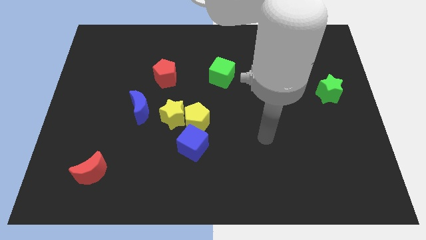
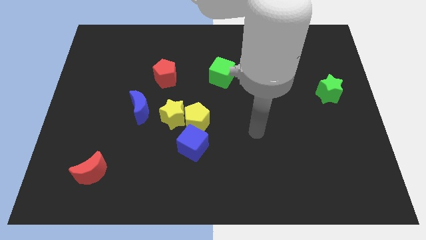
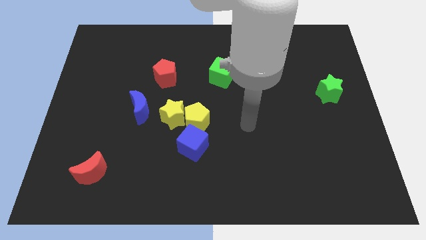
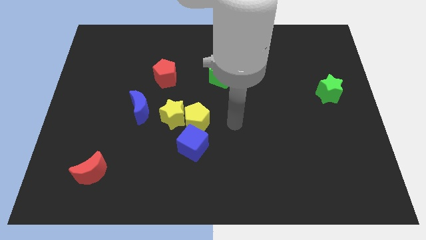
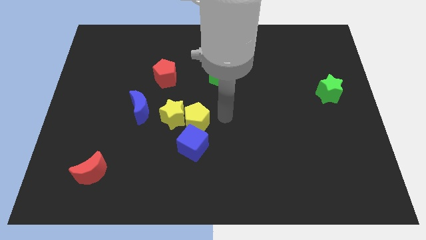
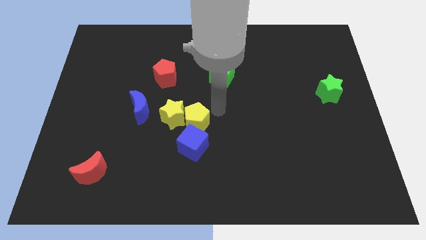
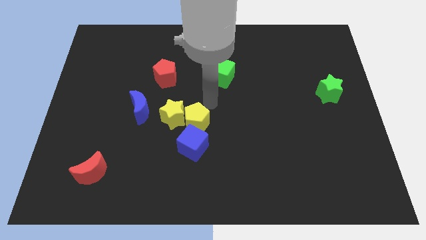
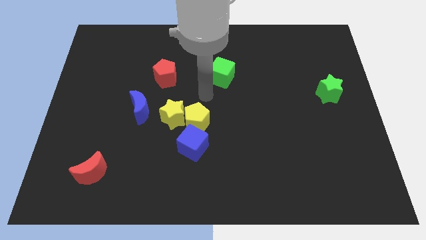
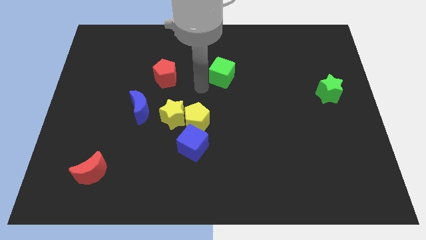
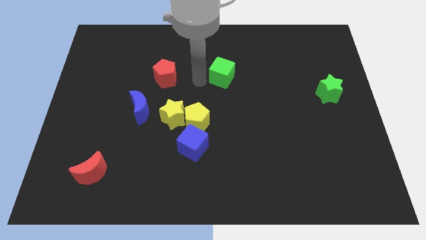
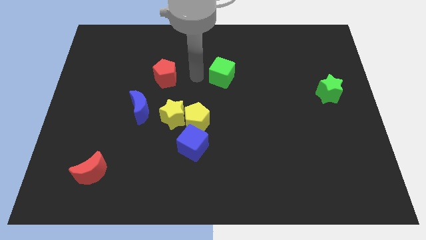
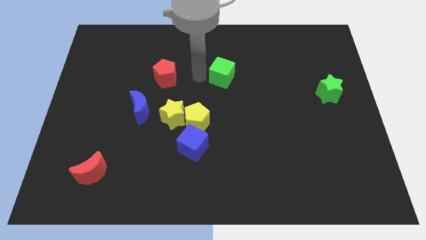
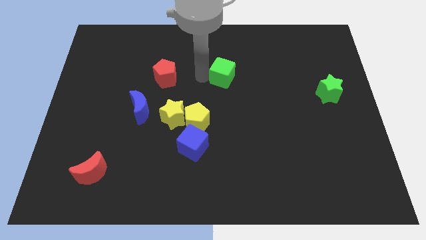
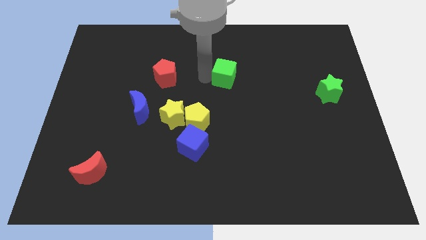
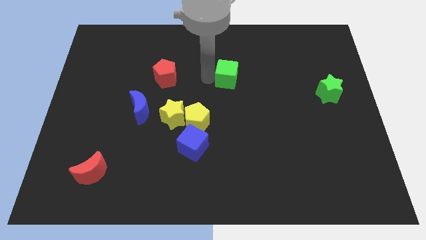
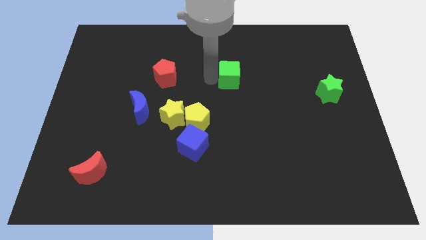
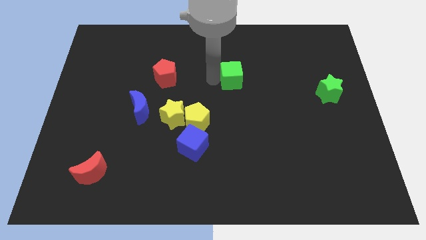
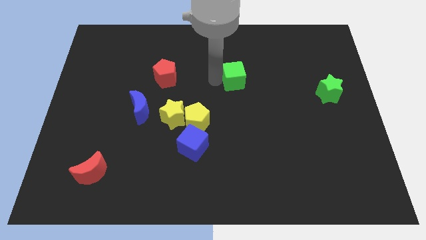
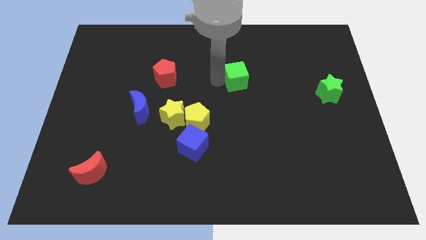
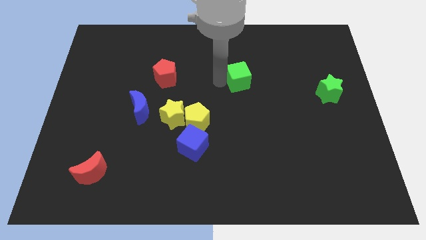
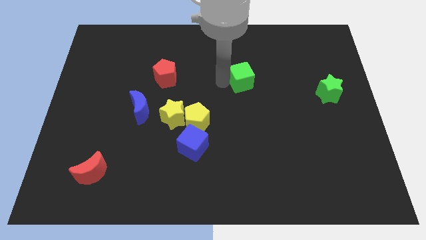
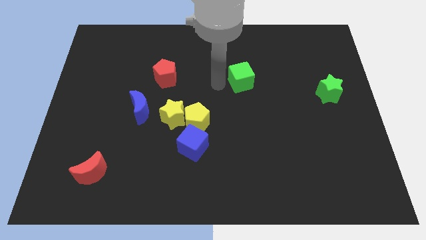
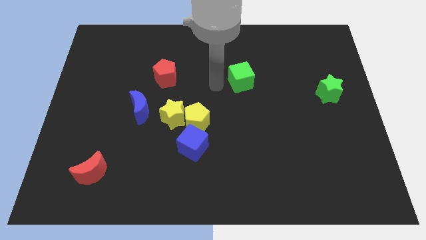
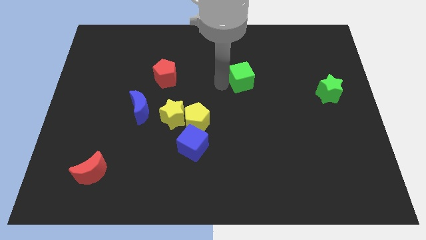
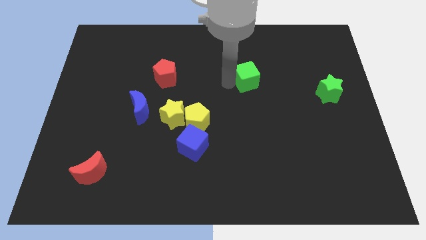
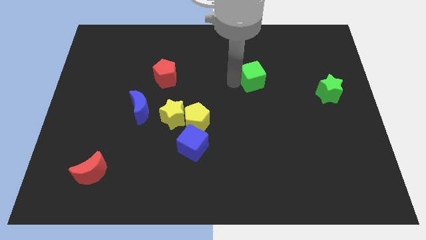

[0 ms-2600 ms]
move the green cube right somewhat

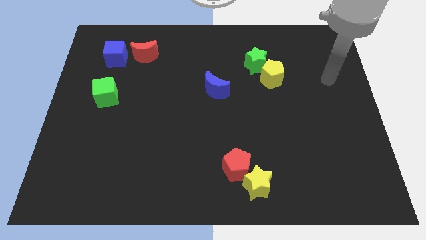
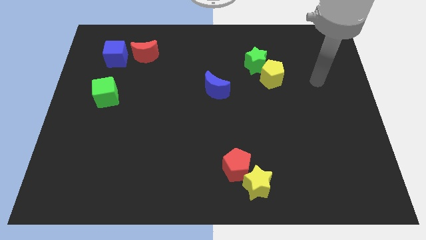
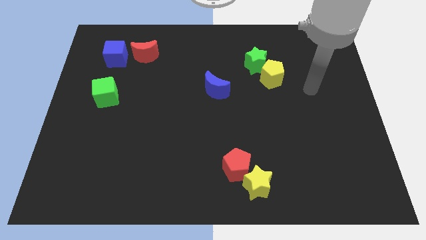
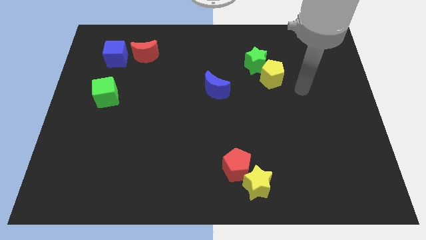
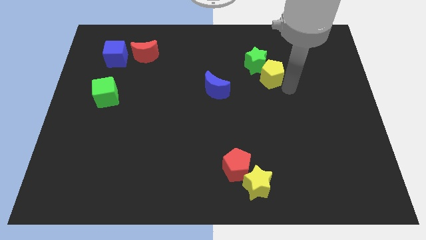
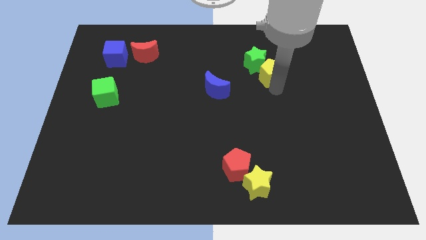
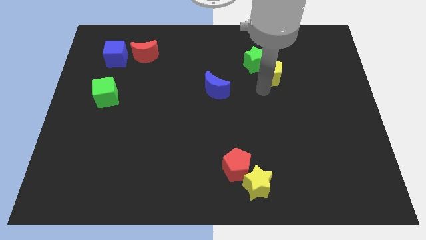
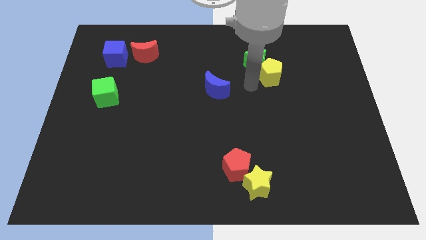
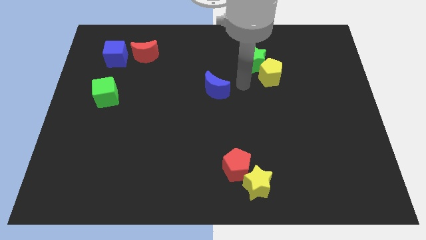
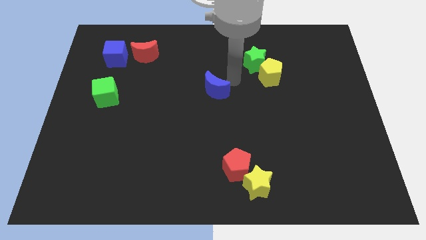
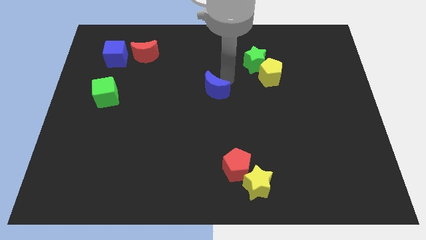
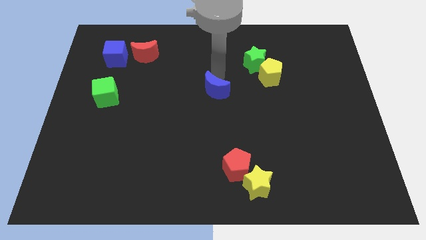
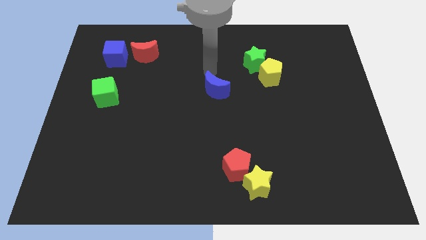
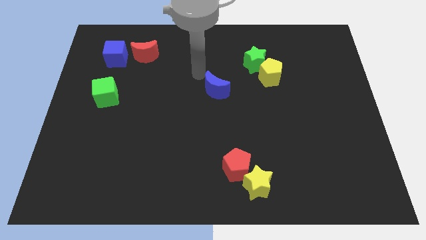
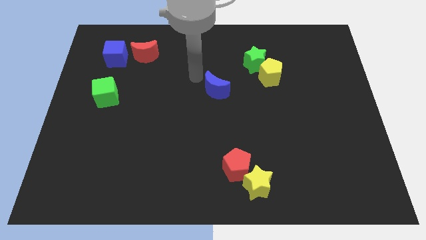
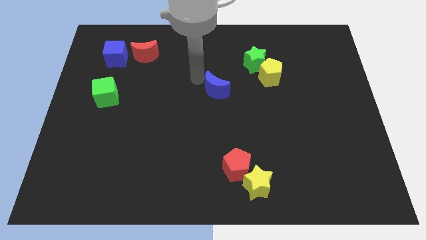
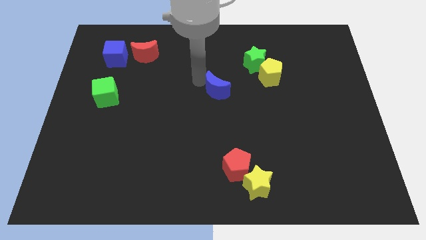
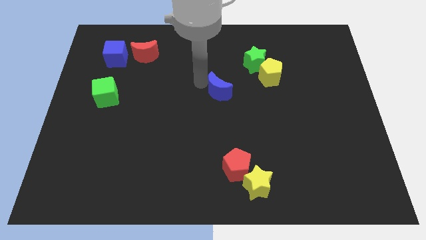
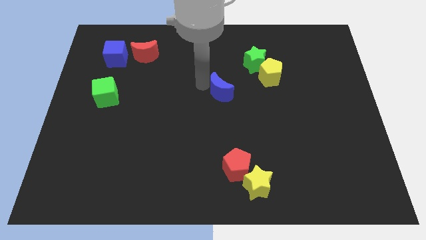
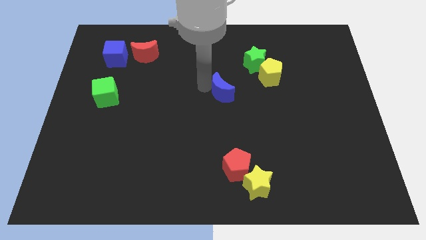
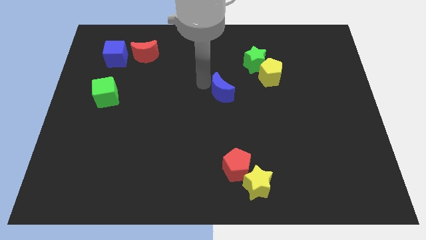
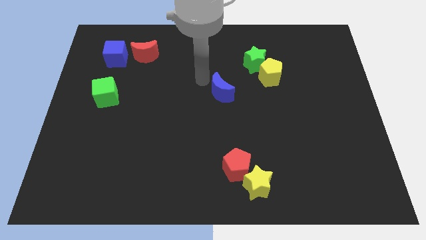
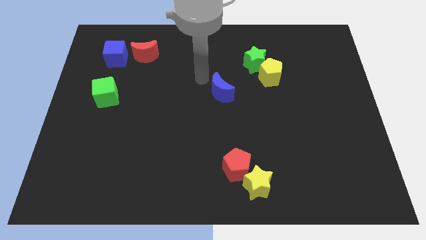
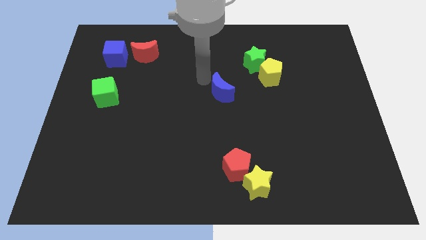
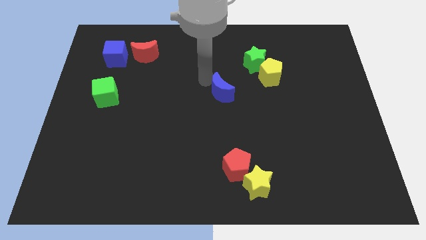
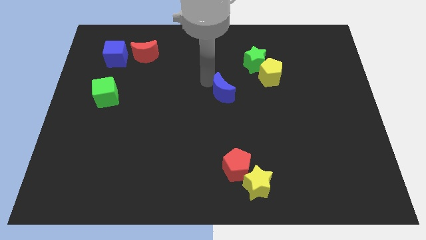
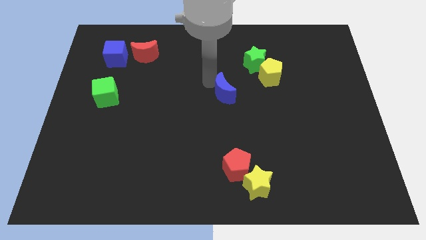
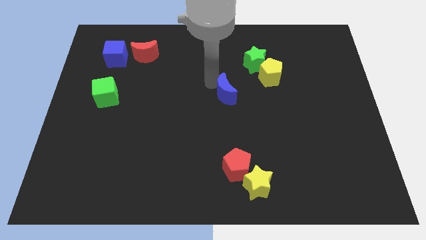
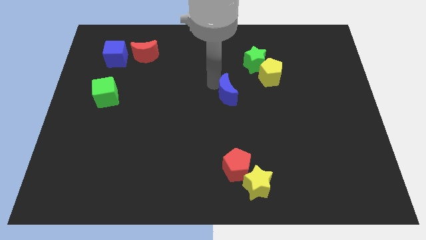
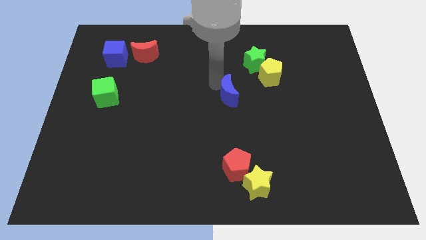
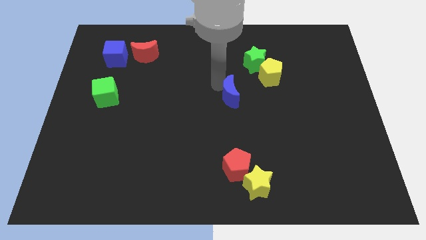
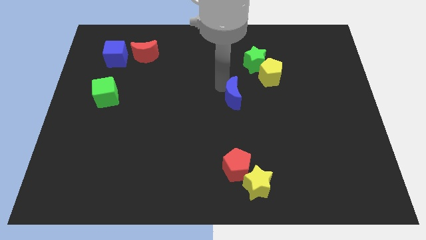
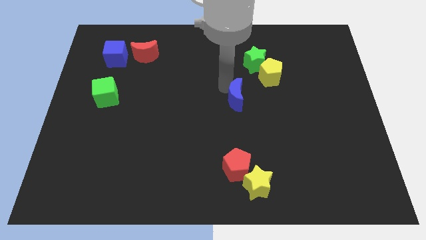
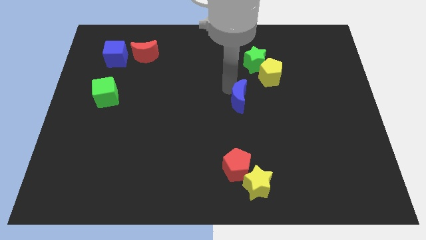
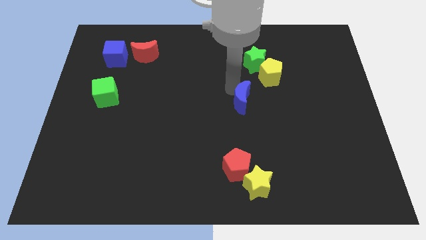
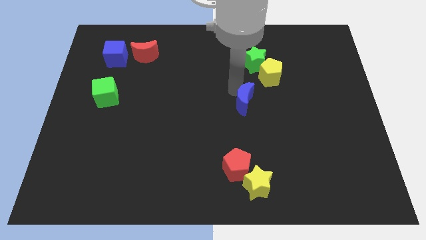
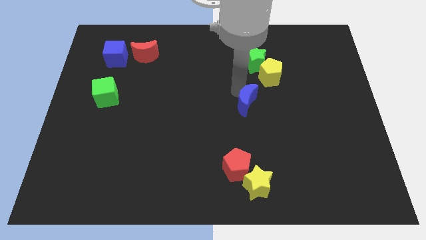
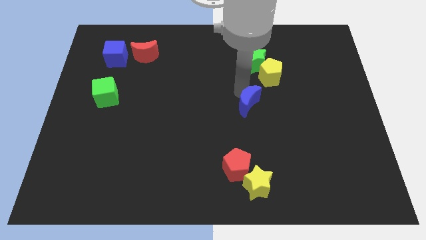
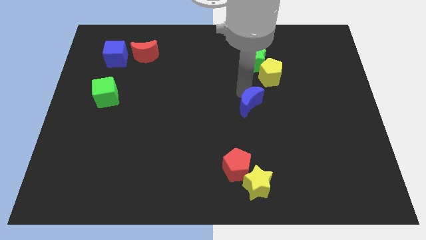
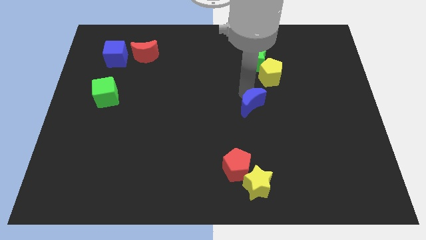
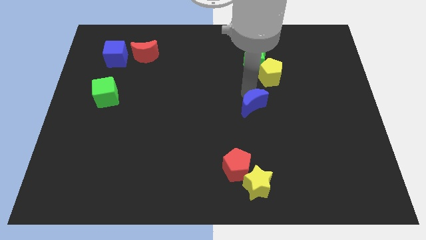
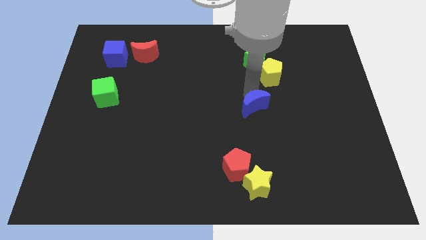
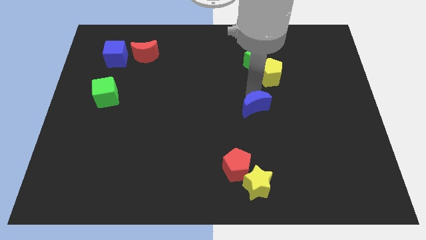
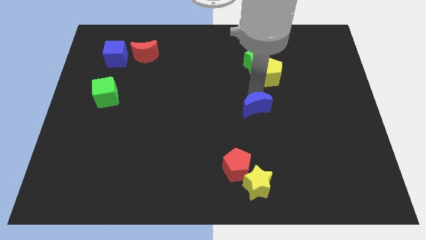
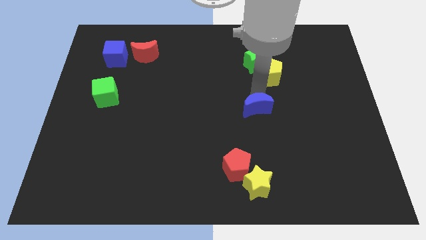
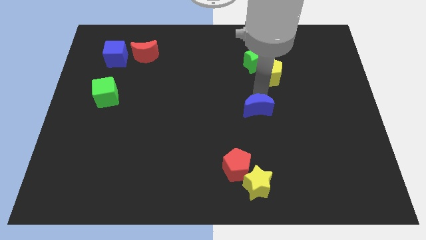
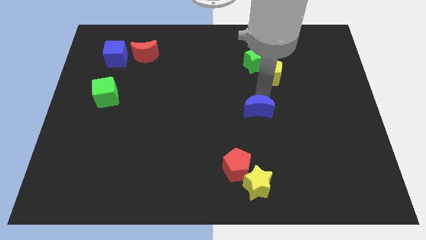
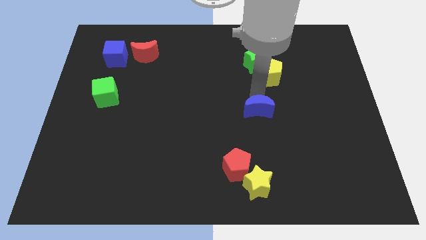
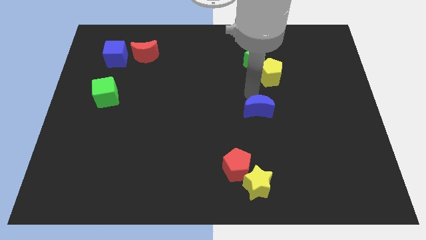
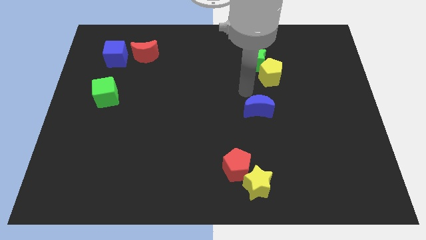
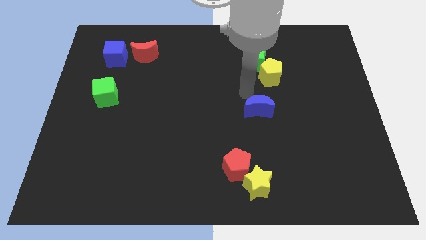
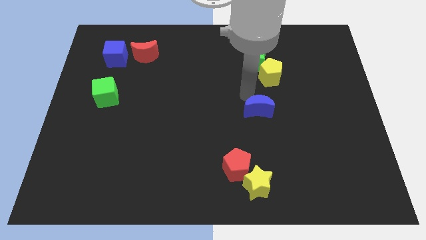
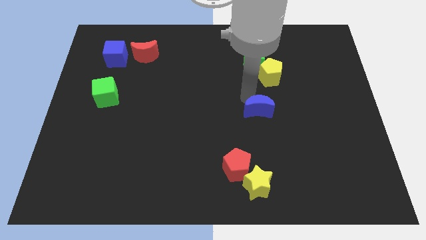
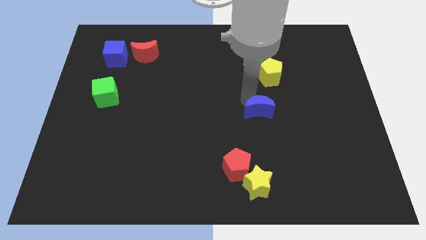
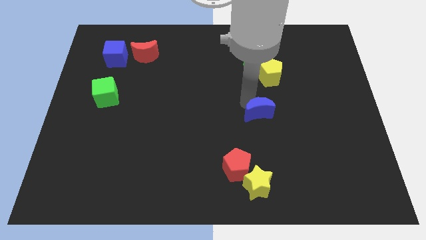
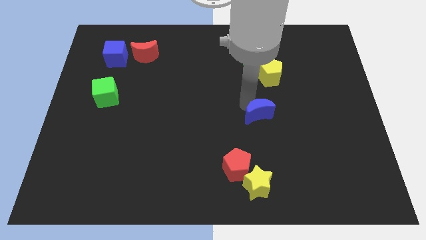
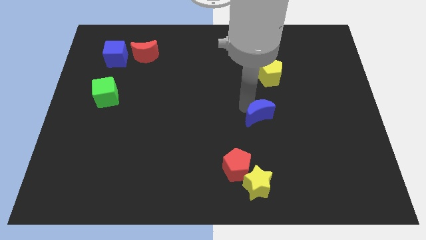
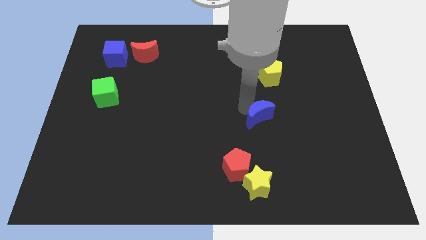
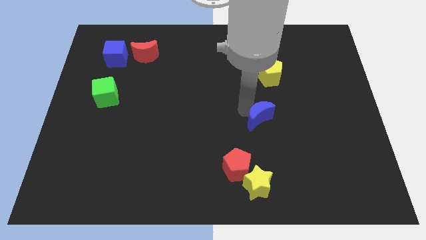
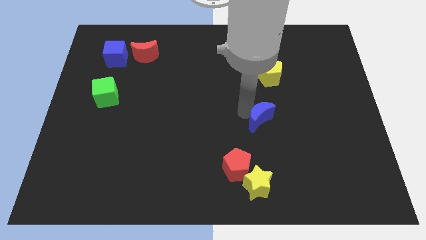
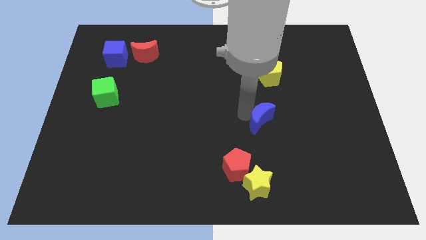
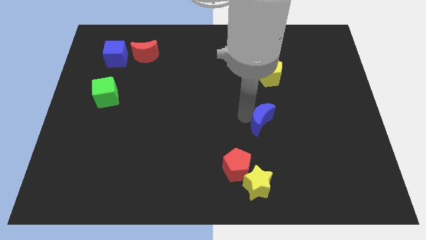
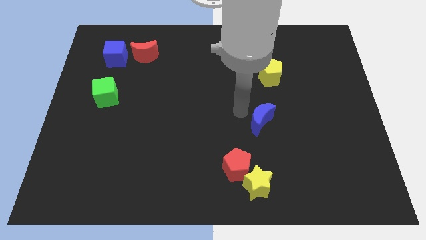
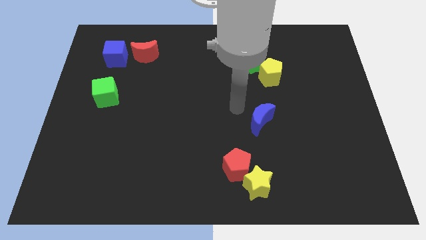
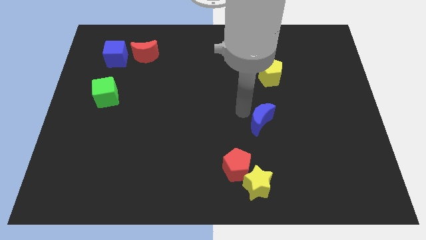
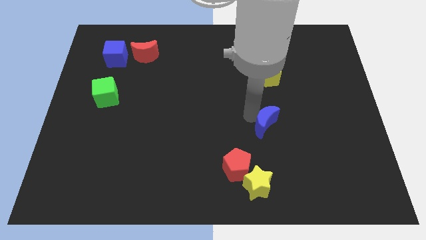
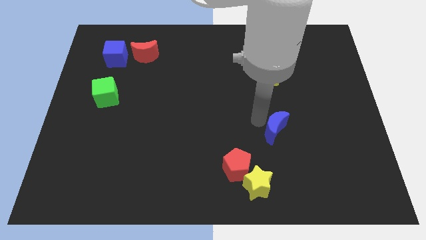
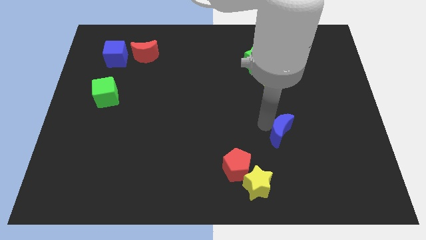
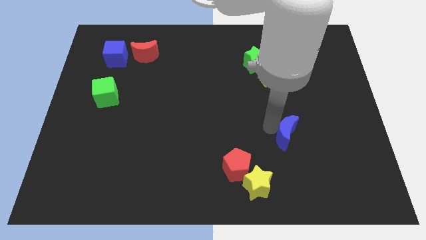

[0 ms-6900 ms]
move the blue moon down and to the right diagonally
